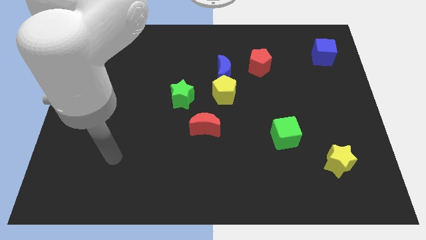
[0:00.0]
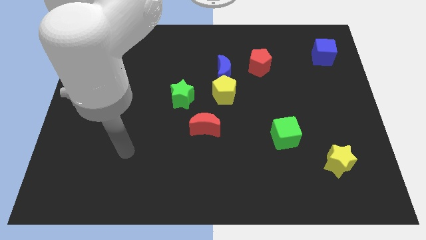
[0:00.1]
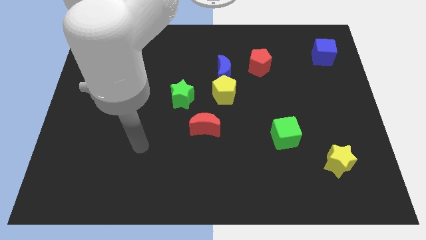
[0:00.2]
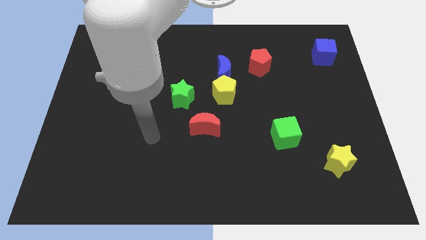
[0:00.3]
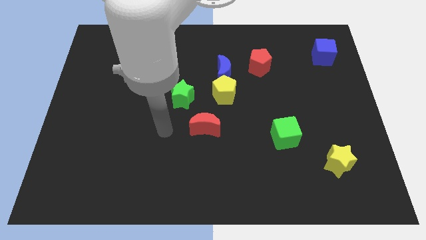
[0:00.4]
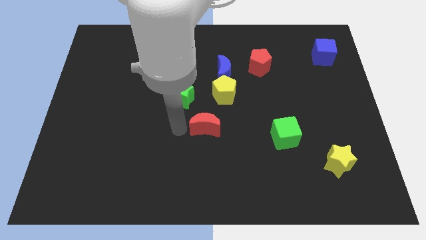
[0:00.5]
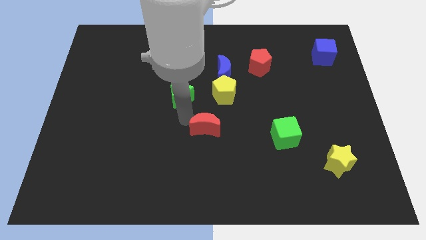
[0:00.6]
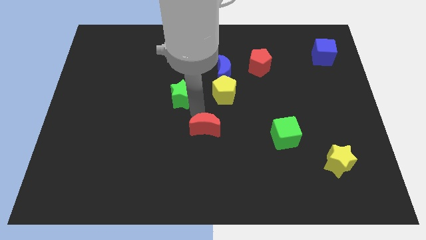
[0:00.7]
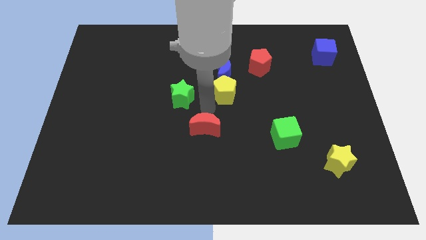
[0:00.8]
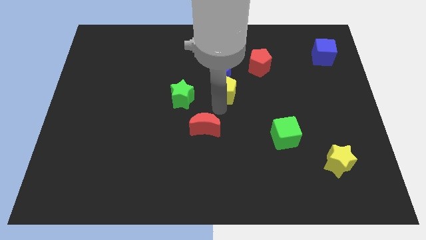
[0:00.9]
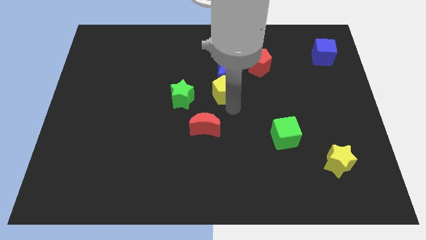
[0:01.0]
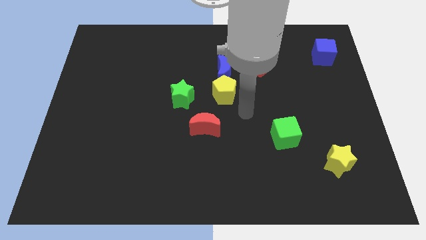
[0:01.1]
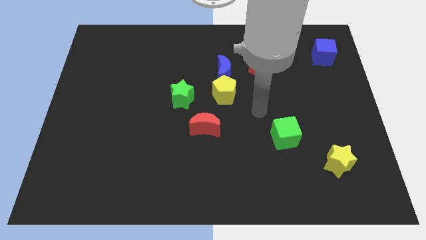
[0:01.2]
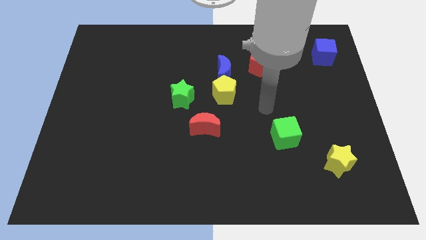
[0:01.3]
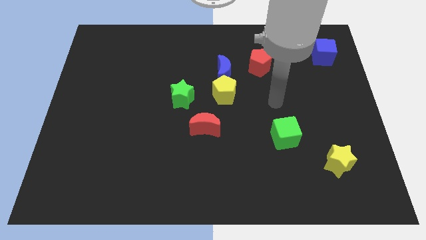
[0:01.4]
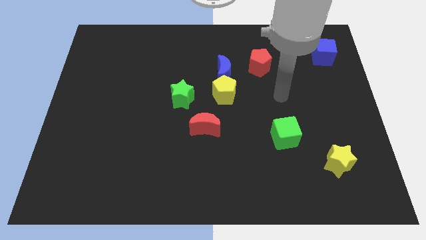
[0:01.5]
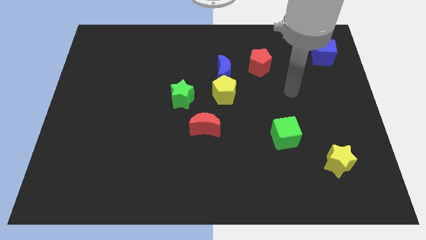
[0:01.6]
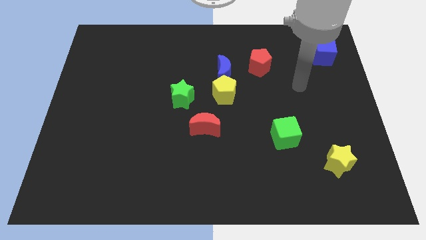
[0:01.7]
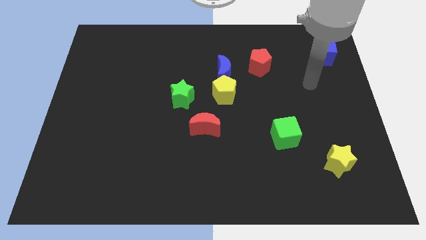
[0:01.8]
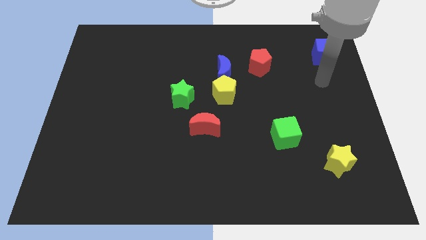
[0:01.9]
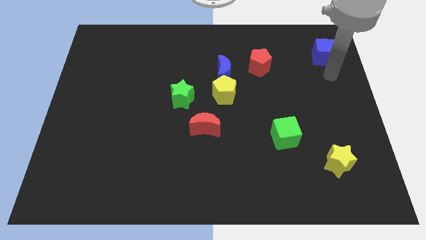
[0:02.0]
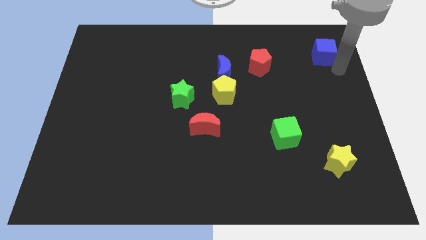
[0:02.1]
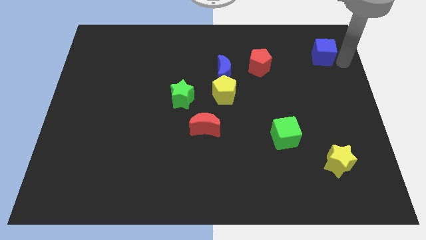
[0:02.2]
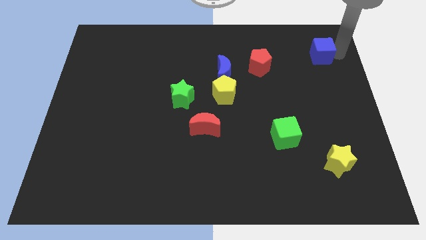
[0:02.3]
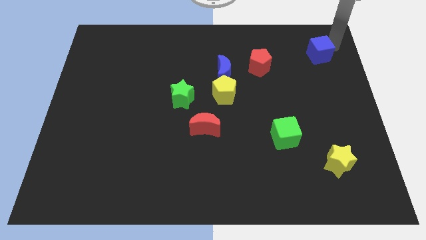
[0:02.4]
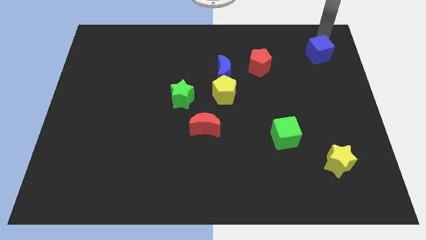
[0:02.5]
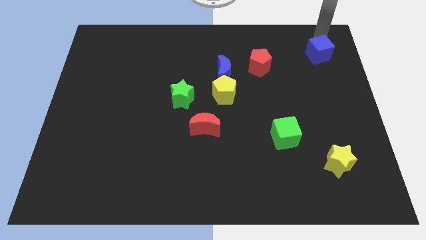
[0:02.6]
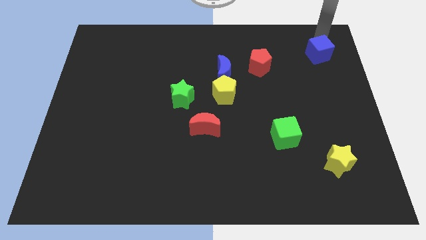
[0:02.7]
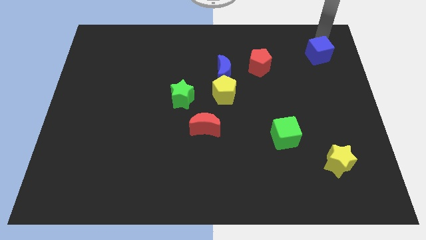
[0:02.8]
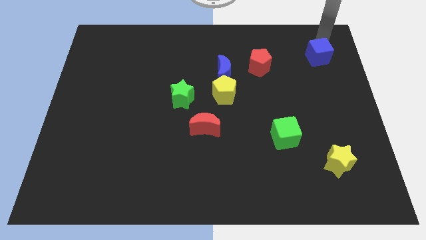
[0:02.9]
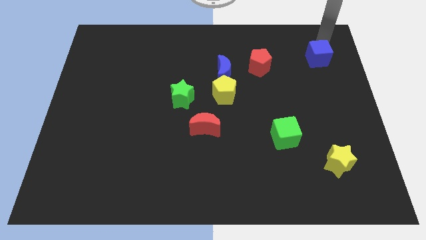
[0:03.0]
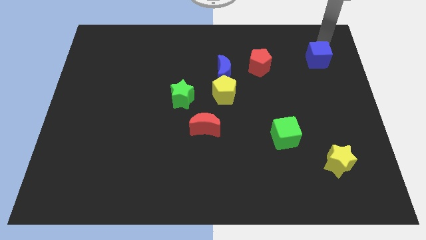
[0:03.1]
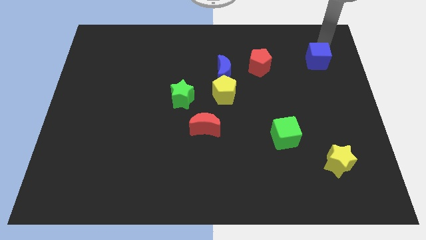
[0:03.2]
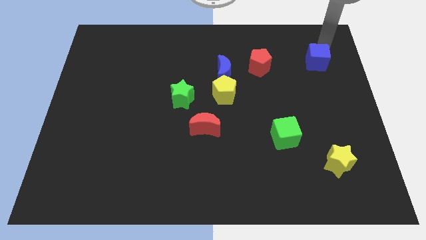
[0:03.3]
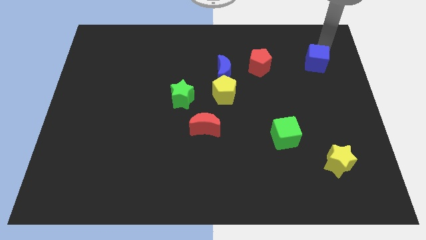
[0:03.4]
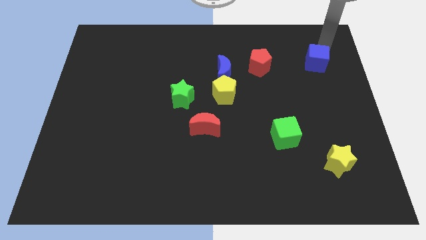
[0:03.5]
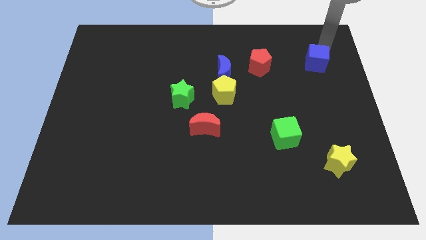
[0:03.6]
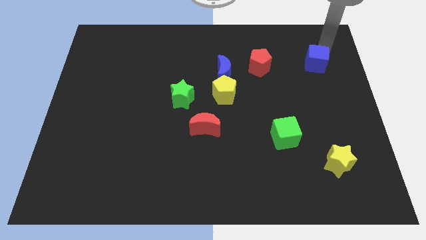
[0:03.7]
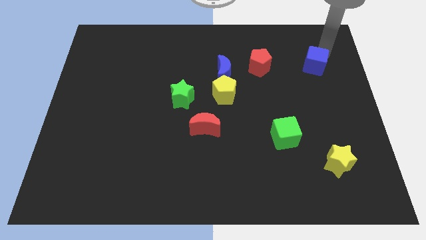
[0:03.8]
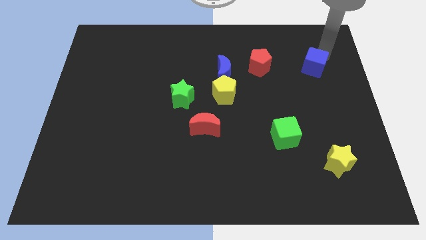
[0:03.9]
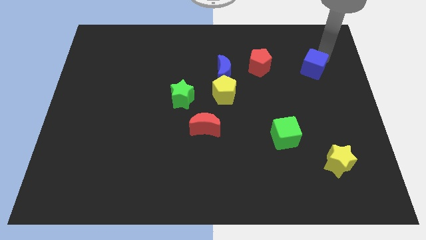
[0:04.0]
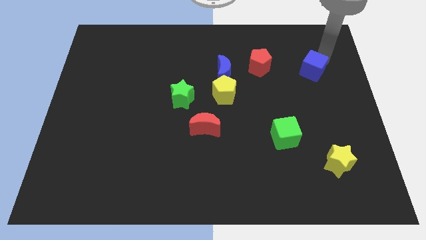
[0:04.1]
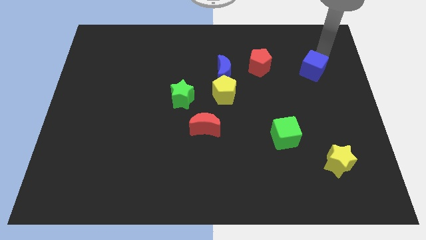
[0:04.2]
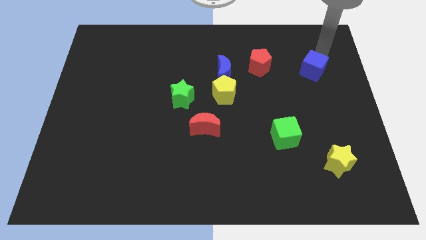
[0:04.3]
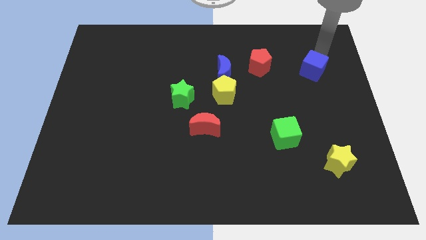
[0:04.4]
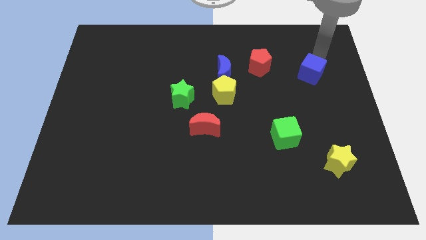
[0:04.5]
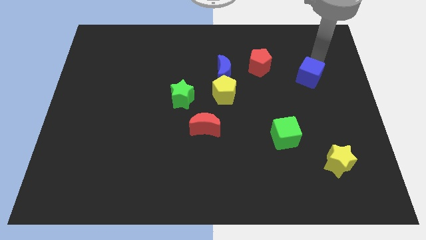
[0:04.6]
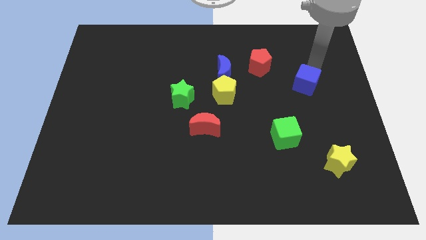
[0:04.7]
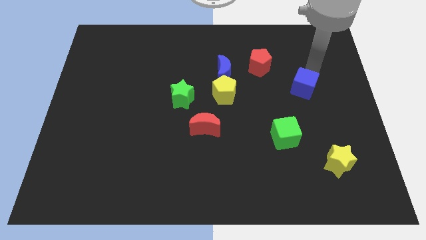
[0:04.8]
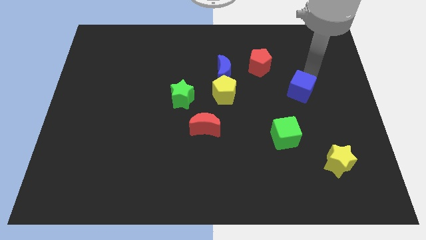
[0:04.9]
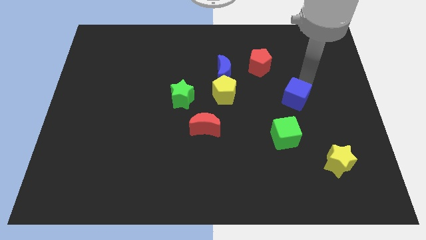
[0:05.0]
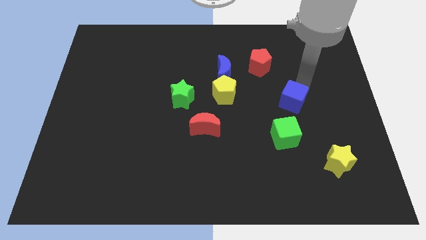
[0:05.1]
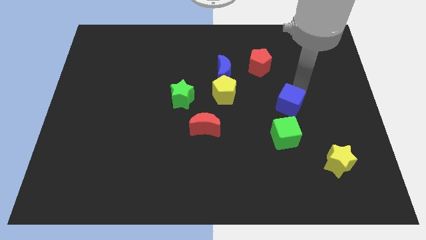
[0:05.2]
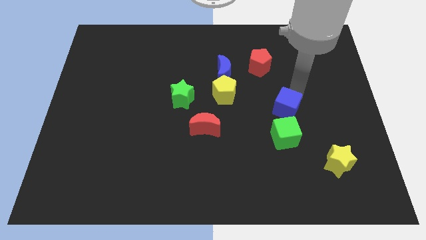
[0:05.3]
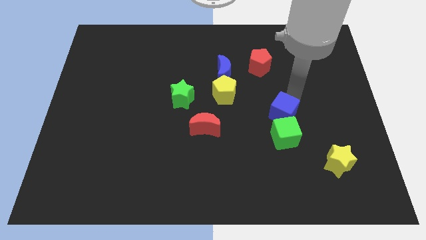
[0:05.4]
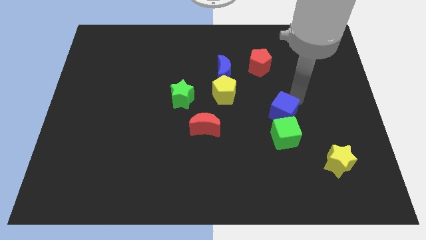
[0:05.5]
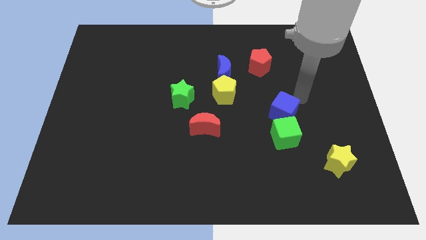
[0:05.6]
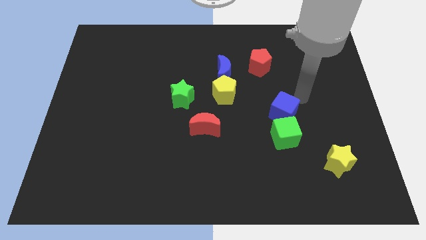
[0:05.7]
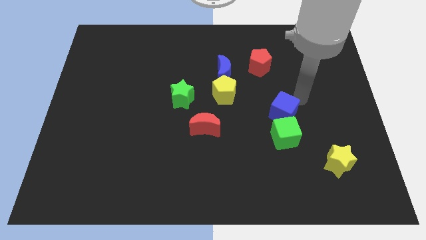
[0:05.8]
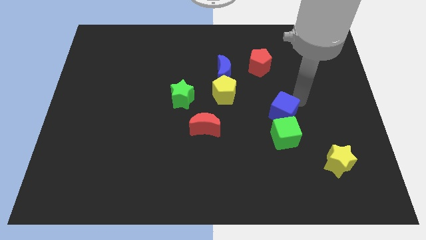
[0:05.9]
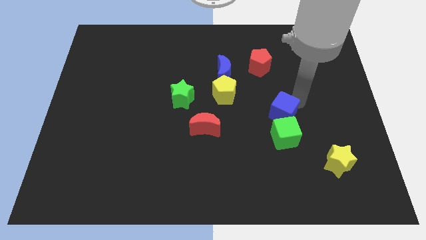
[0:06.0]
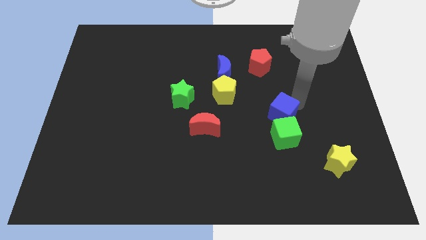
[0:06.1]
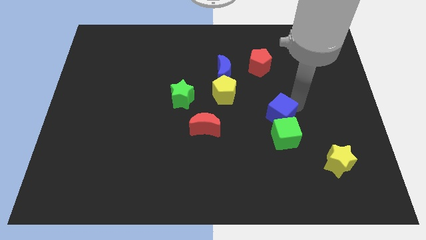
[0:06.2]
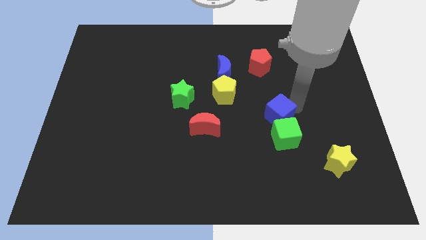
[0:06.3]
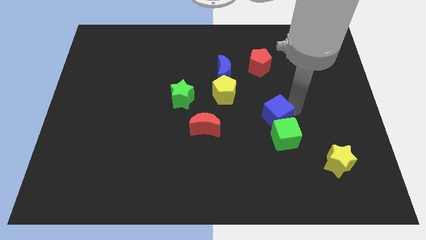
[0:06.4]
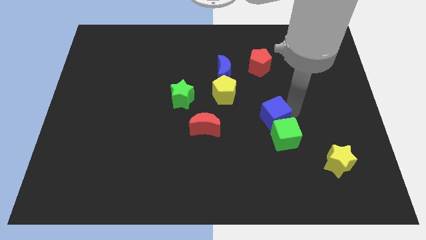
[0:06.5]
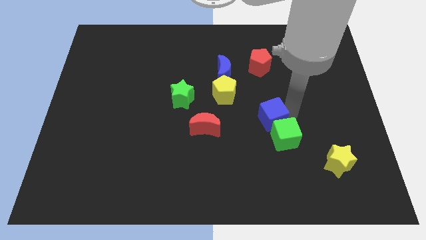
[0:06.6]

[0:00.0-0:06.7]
slide the blue cube to the right of the red moon

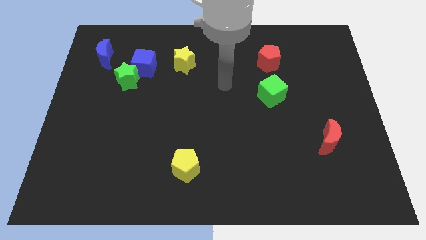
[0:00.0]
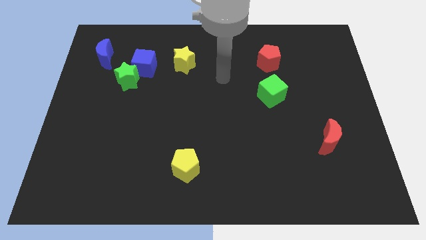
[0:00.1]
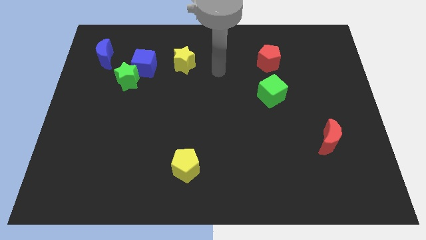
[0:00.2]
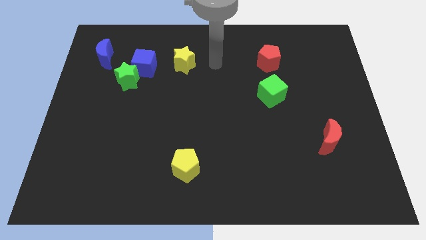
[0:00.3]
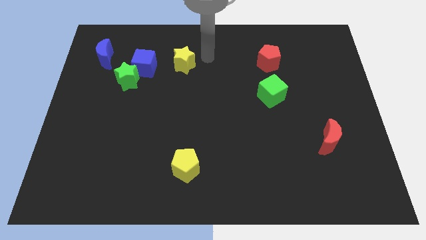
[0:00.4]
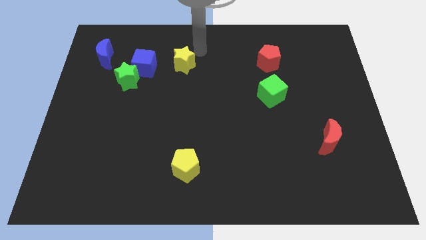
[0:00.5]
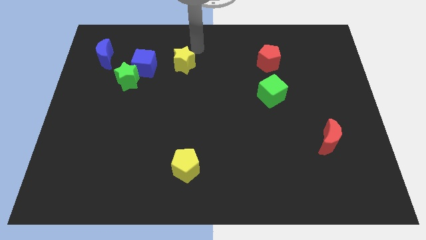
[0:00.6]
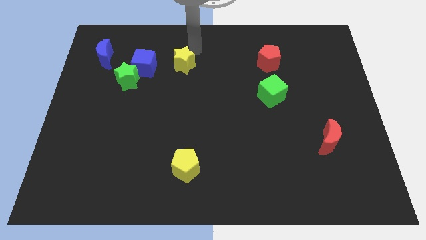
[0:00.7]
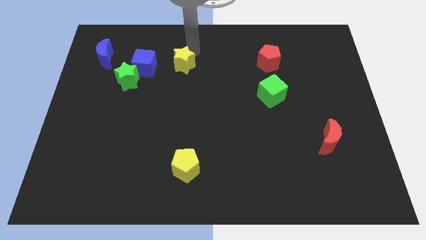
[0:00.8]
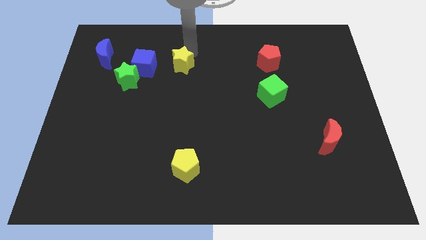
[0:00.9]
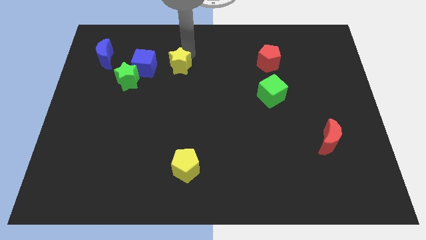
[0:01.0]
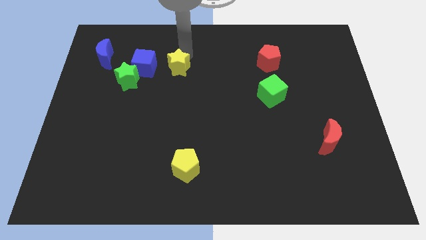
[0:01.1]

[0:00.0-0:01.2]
slide the yellow star to the right of the green star
